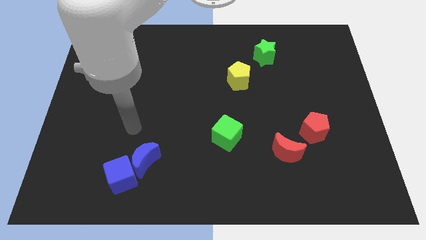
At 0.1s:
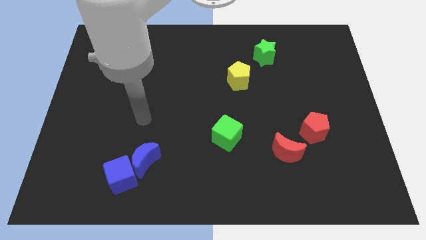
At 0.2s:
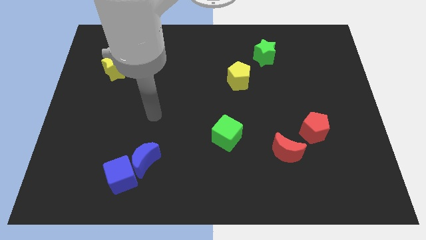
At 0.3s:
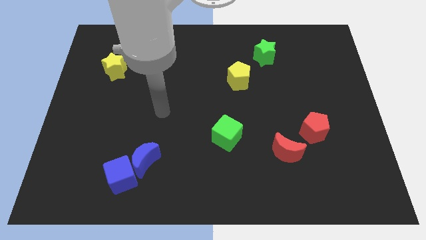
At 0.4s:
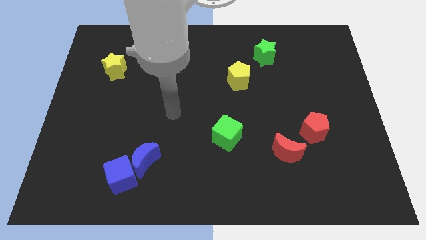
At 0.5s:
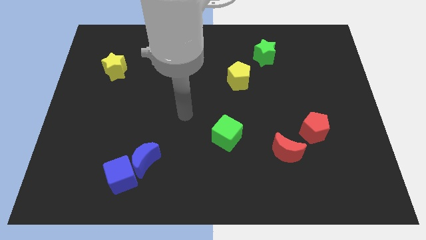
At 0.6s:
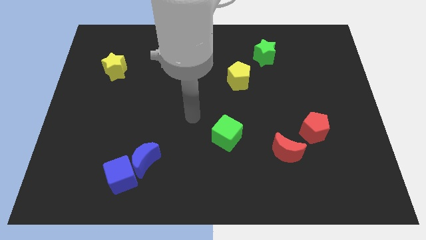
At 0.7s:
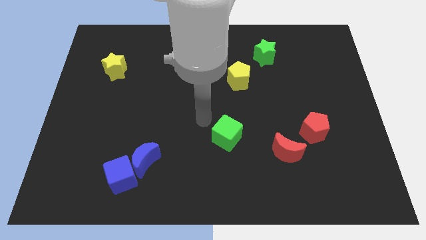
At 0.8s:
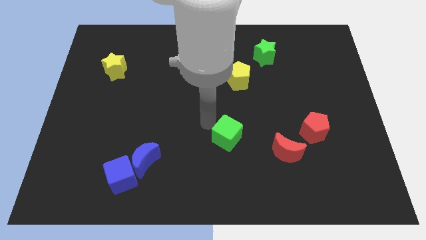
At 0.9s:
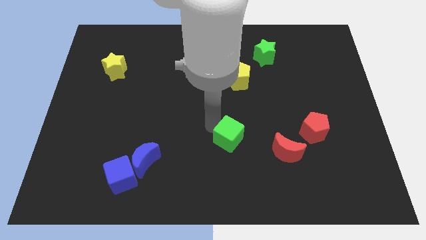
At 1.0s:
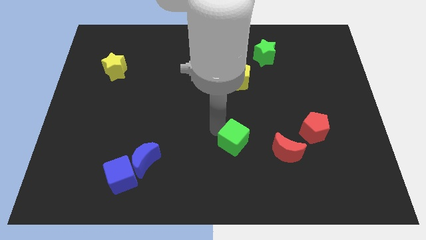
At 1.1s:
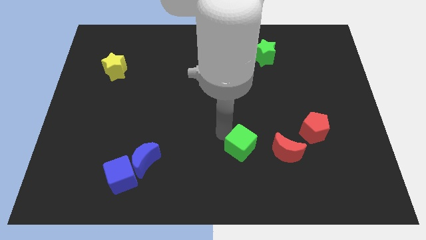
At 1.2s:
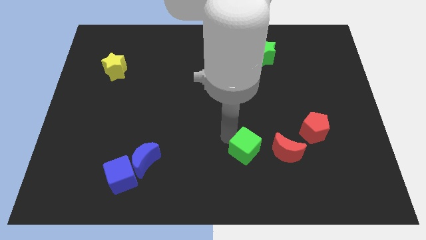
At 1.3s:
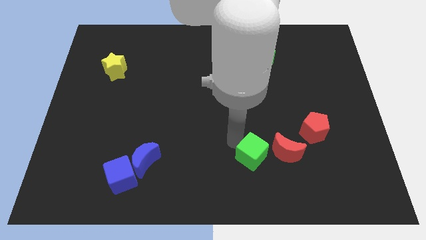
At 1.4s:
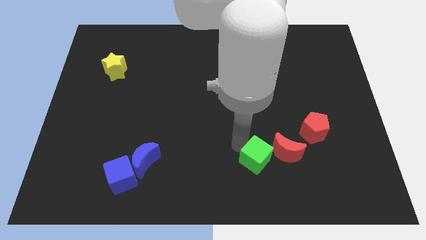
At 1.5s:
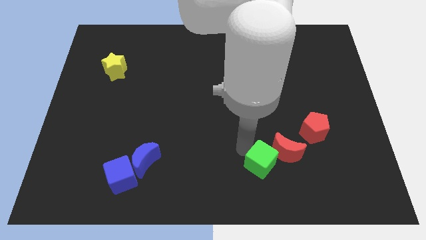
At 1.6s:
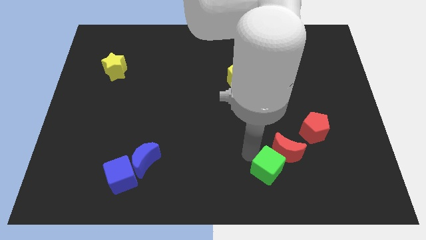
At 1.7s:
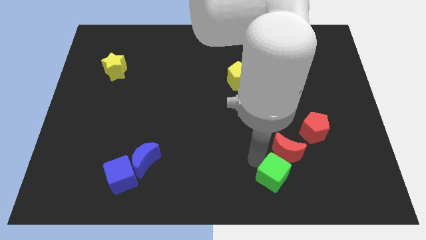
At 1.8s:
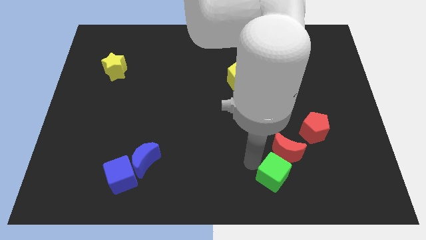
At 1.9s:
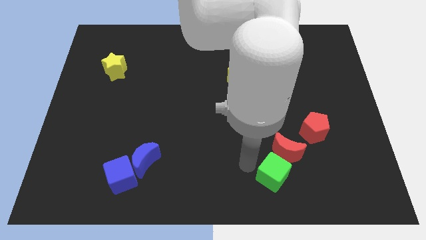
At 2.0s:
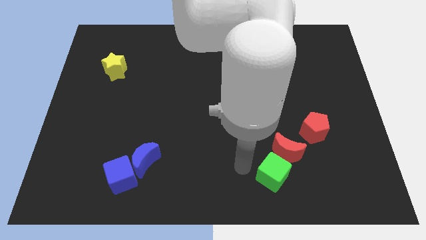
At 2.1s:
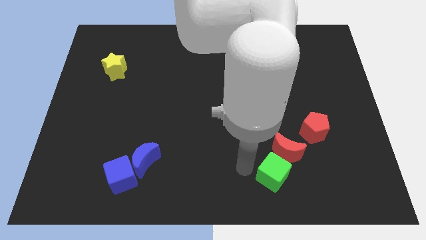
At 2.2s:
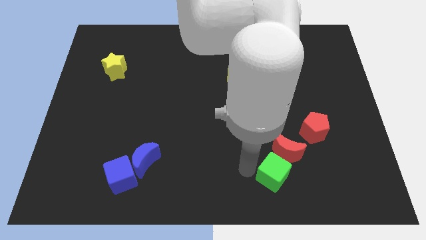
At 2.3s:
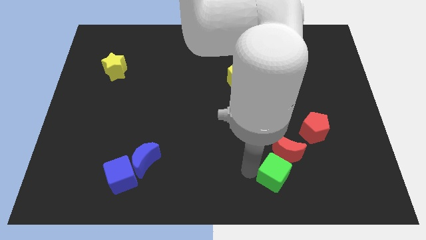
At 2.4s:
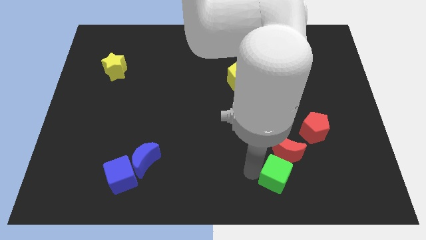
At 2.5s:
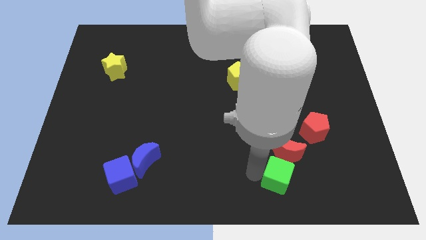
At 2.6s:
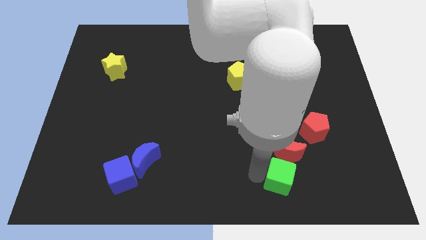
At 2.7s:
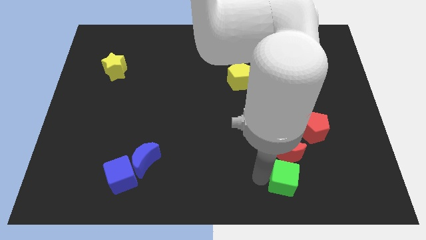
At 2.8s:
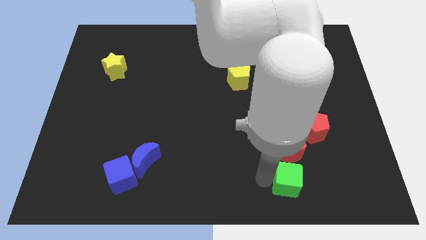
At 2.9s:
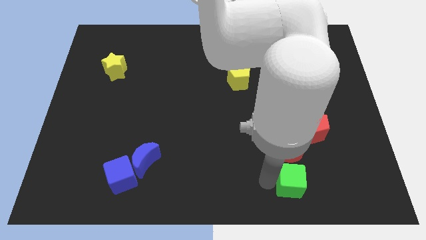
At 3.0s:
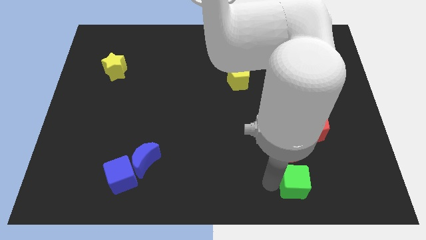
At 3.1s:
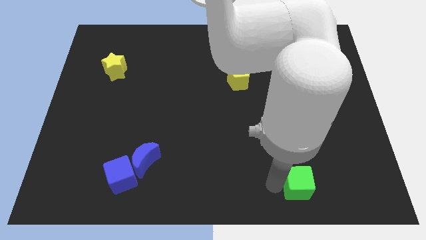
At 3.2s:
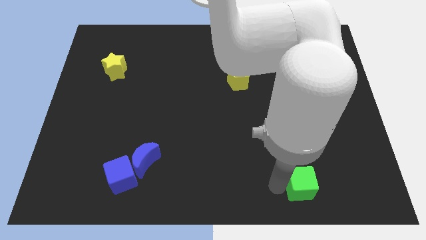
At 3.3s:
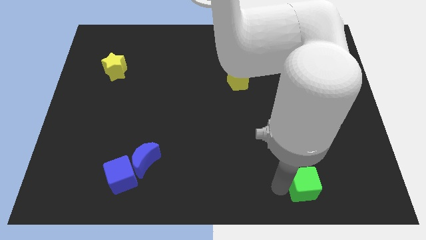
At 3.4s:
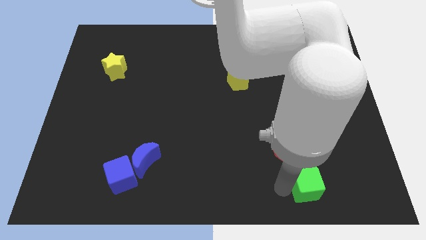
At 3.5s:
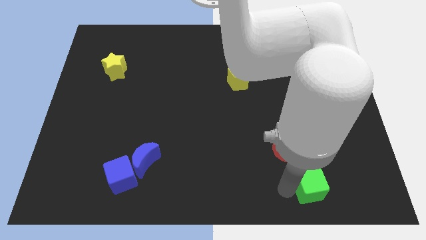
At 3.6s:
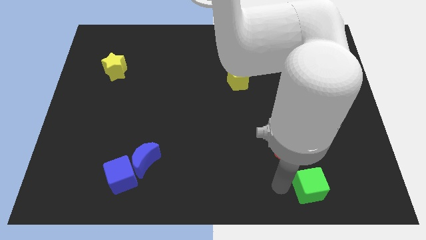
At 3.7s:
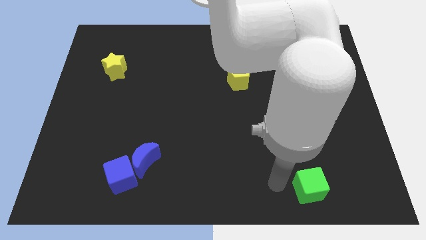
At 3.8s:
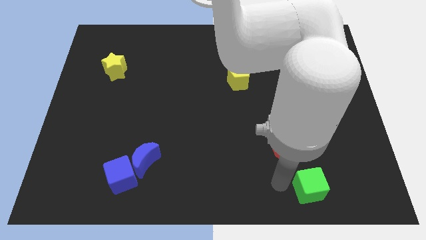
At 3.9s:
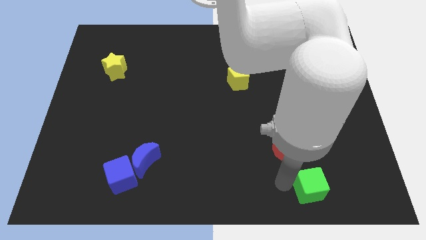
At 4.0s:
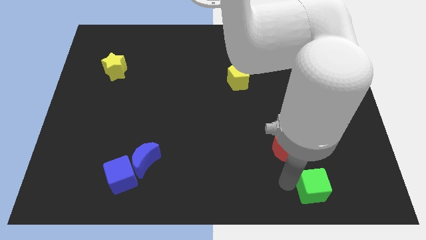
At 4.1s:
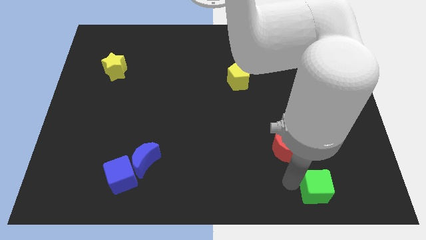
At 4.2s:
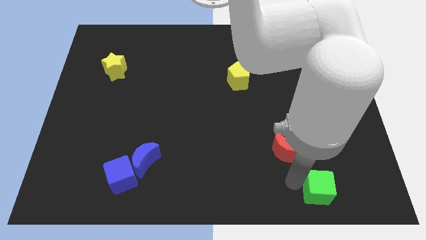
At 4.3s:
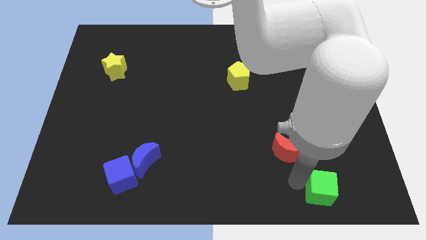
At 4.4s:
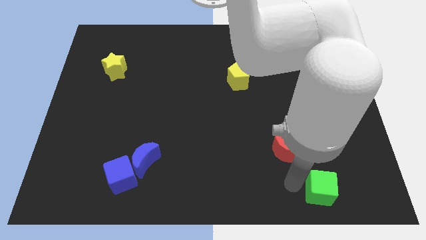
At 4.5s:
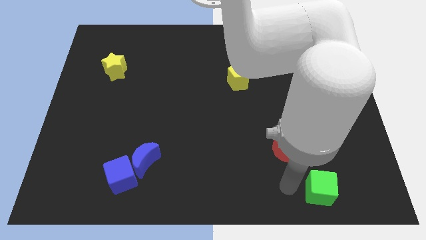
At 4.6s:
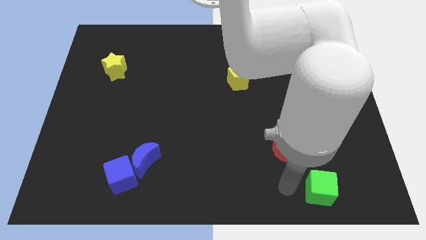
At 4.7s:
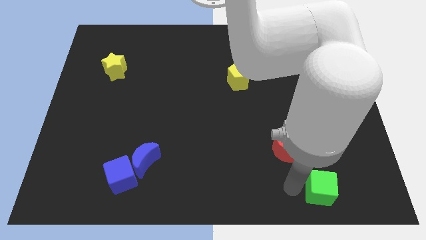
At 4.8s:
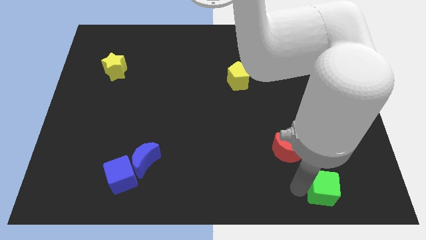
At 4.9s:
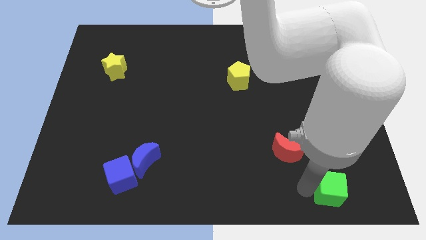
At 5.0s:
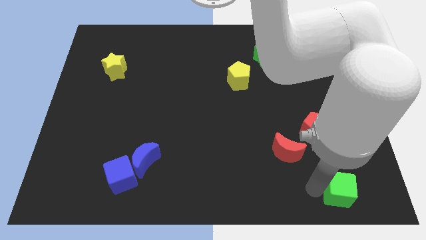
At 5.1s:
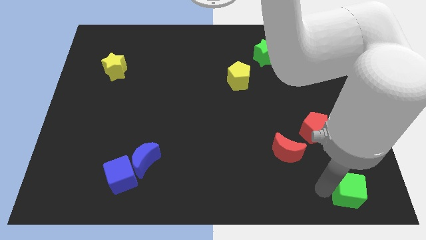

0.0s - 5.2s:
move the green cube to the bottom right corner

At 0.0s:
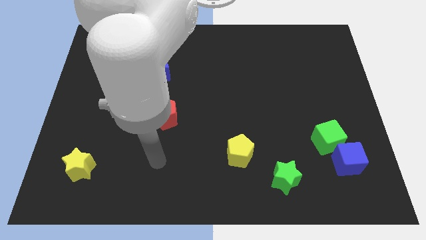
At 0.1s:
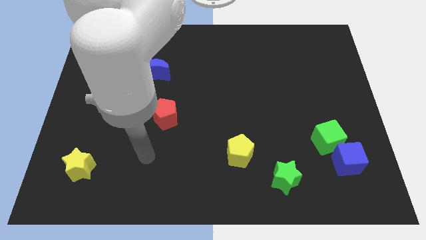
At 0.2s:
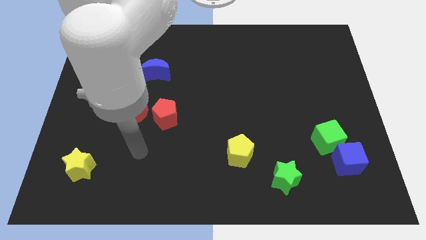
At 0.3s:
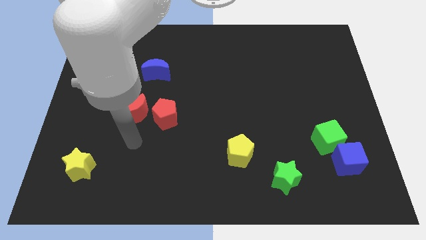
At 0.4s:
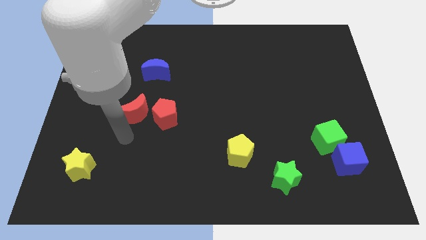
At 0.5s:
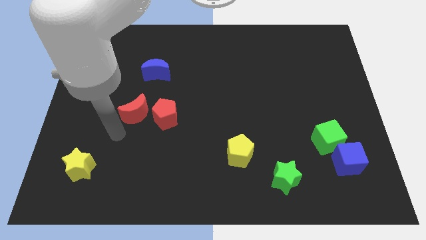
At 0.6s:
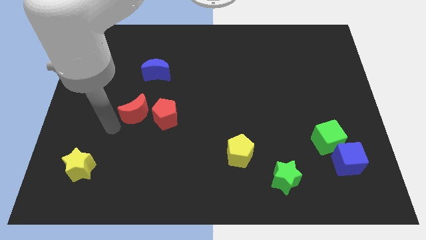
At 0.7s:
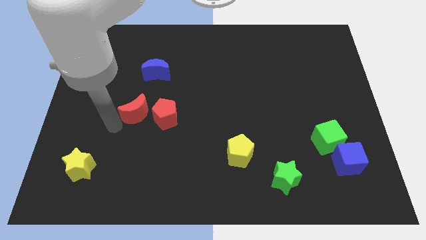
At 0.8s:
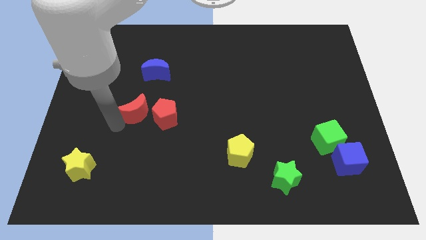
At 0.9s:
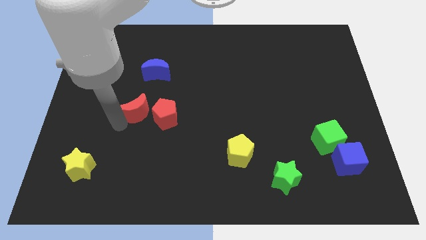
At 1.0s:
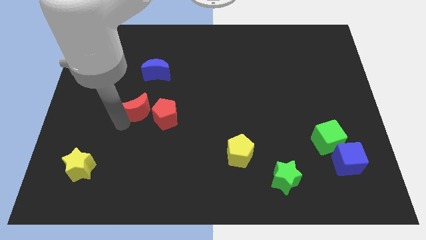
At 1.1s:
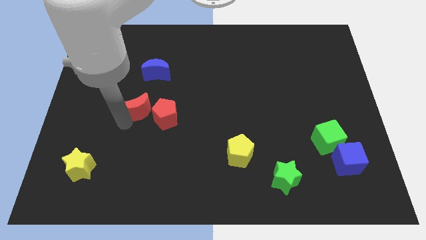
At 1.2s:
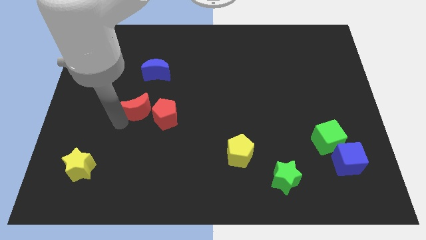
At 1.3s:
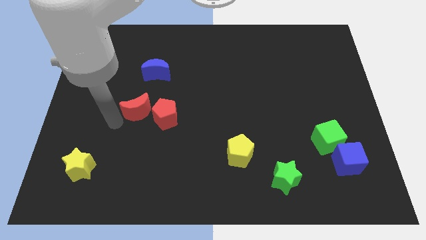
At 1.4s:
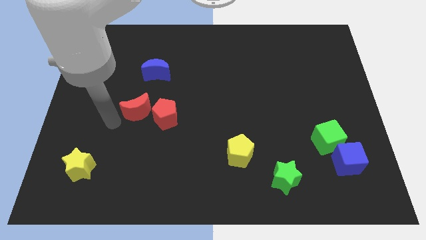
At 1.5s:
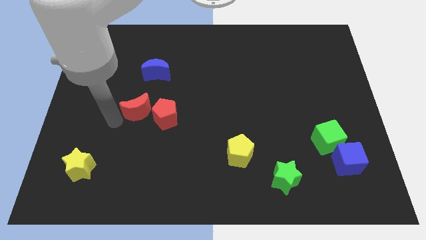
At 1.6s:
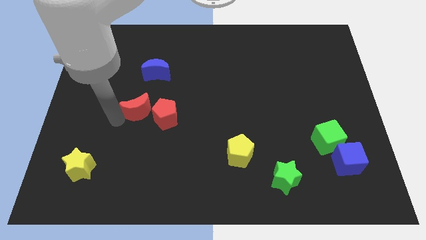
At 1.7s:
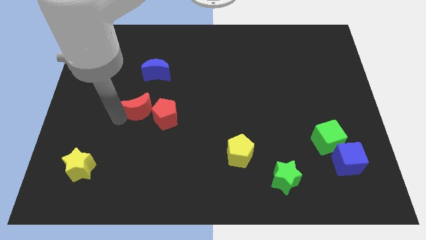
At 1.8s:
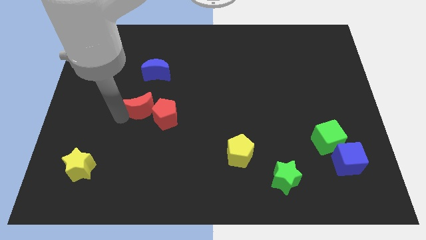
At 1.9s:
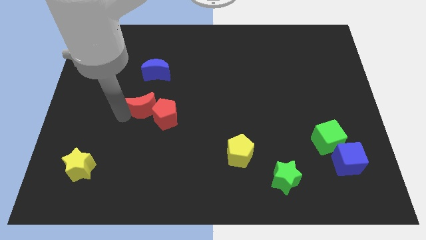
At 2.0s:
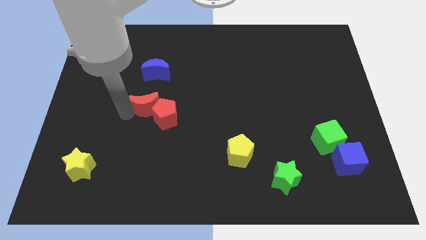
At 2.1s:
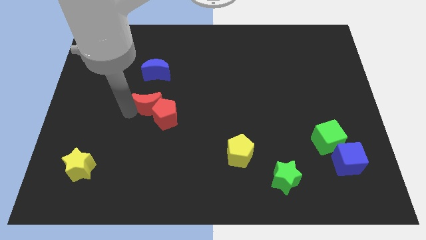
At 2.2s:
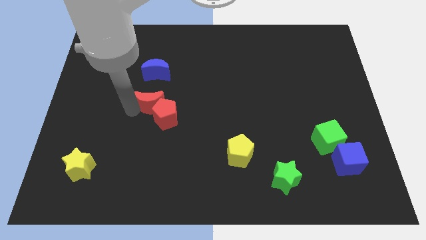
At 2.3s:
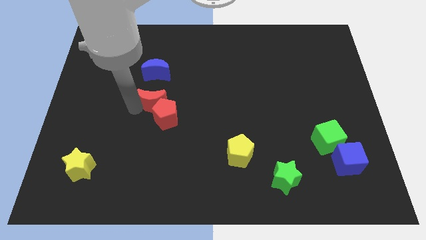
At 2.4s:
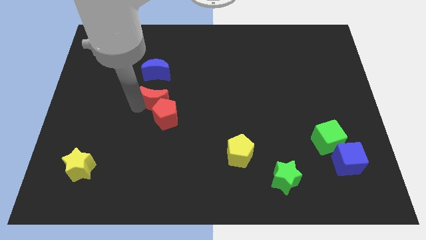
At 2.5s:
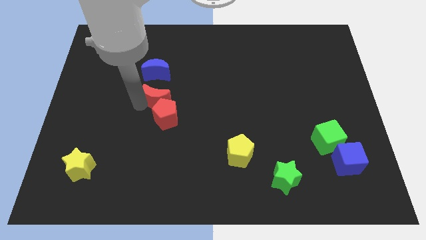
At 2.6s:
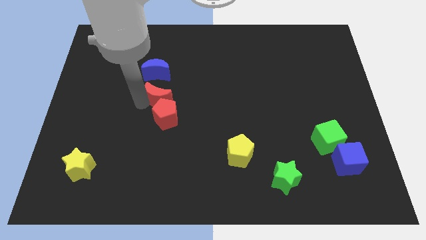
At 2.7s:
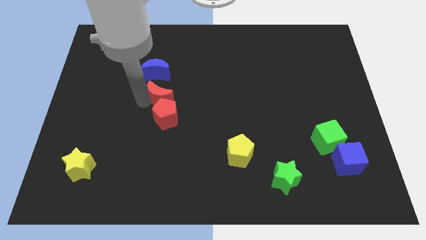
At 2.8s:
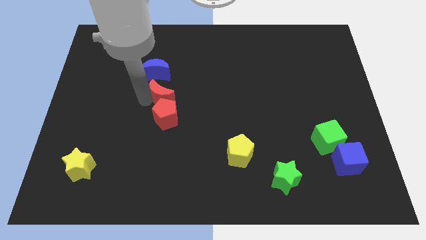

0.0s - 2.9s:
slide the red moon to the middle
